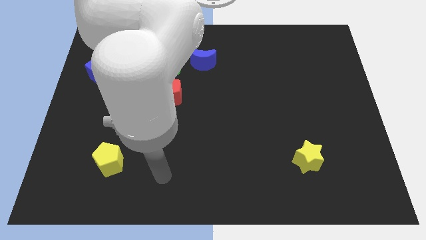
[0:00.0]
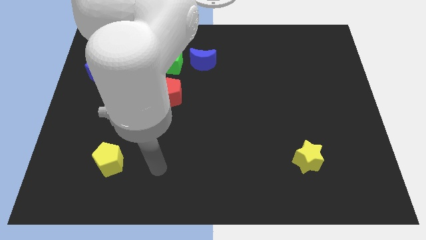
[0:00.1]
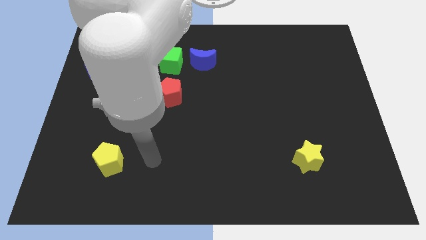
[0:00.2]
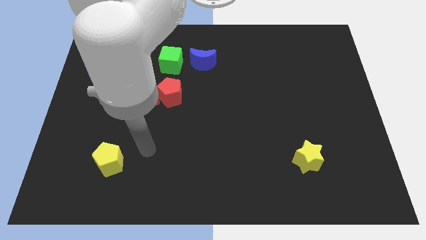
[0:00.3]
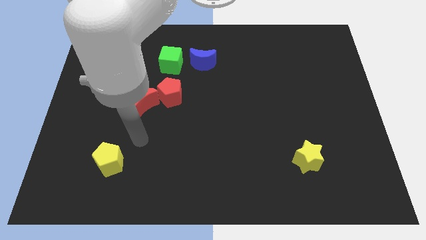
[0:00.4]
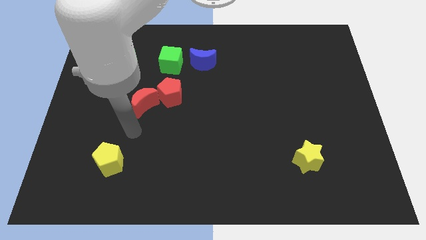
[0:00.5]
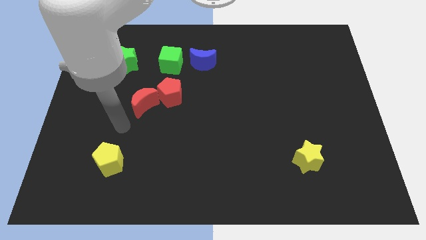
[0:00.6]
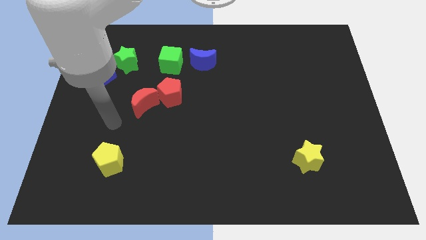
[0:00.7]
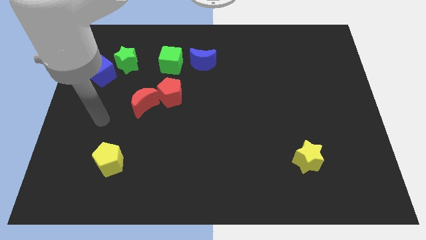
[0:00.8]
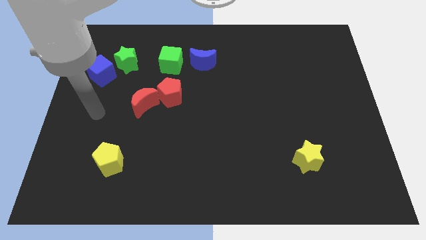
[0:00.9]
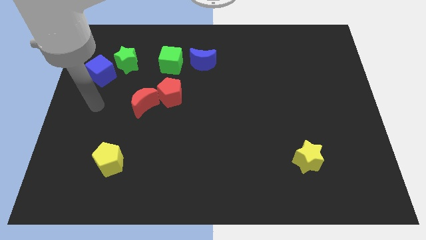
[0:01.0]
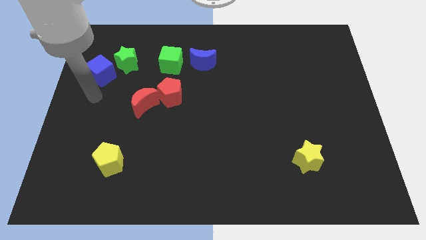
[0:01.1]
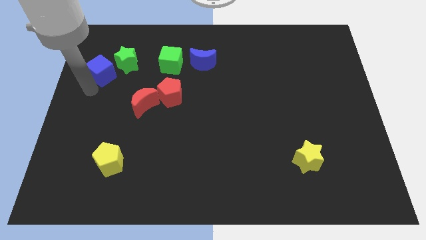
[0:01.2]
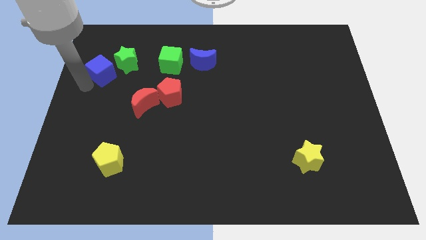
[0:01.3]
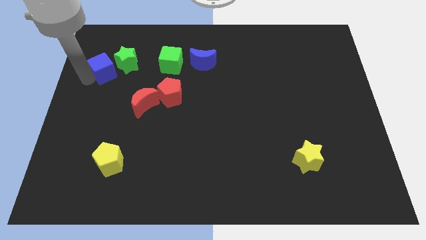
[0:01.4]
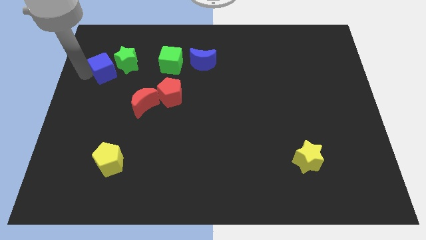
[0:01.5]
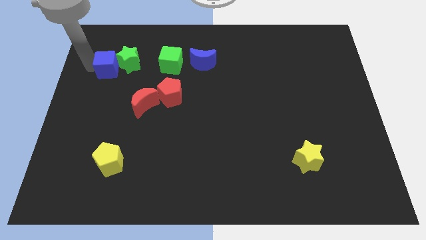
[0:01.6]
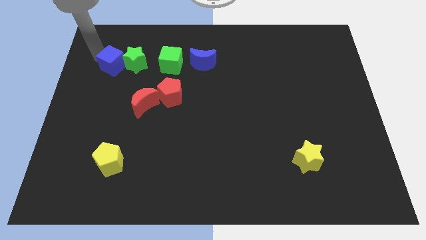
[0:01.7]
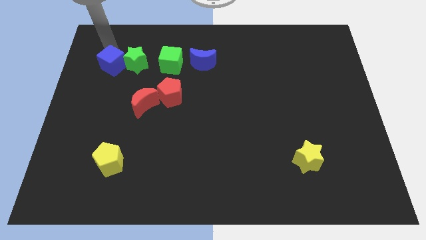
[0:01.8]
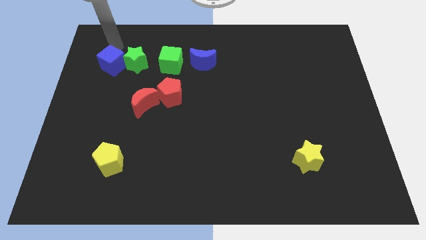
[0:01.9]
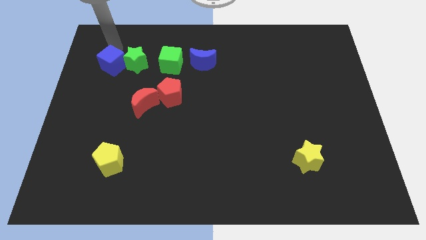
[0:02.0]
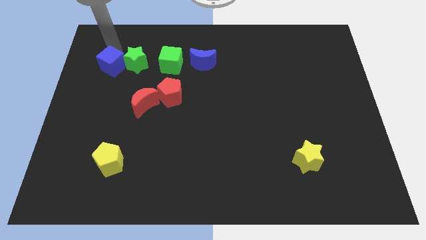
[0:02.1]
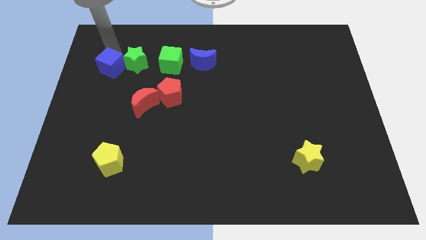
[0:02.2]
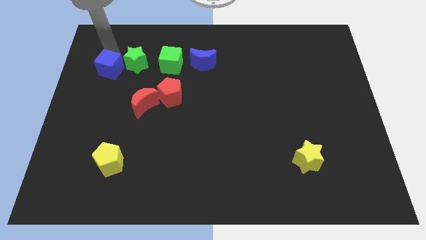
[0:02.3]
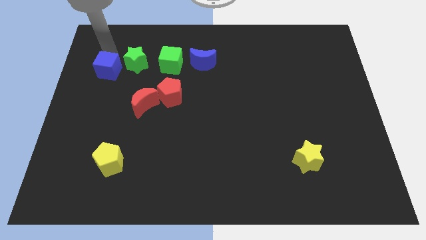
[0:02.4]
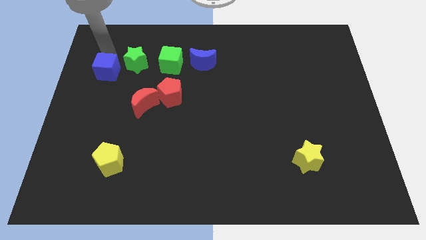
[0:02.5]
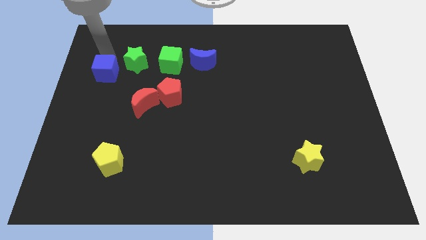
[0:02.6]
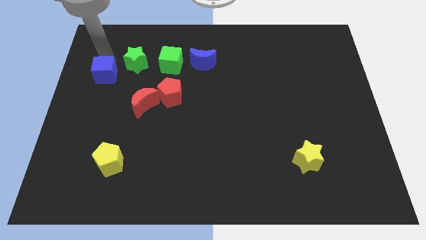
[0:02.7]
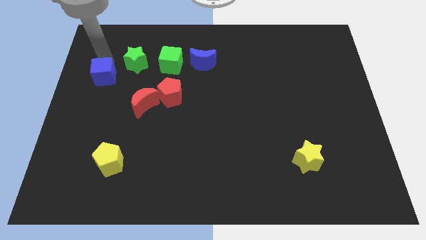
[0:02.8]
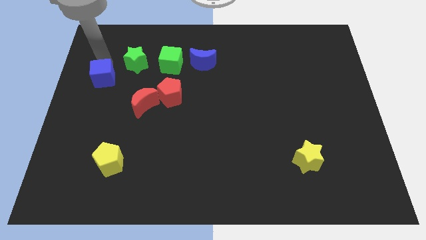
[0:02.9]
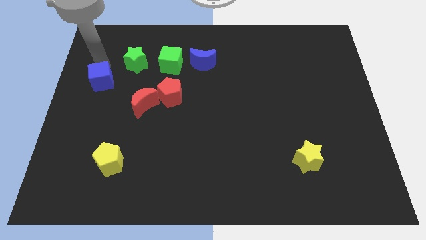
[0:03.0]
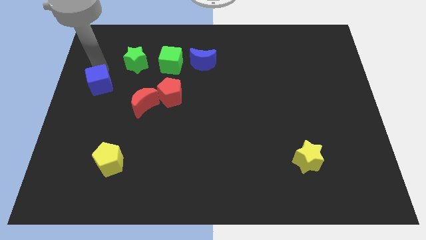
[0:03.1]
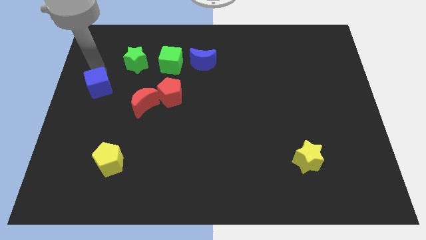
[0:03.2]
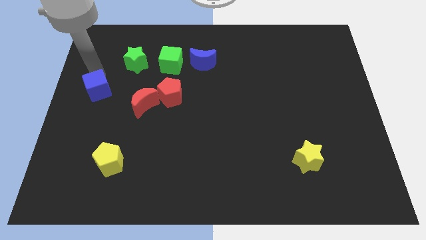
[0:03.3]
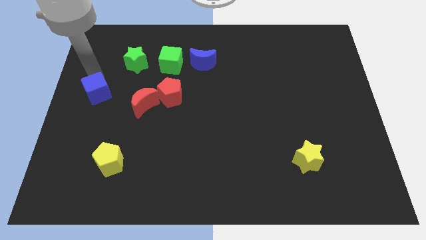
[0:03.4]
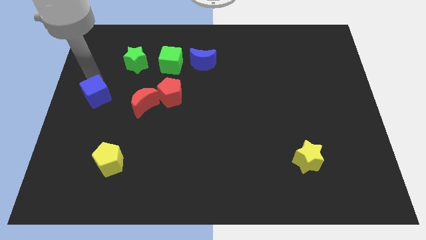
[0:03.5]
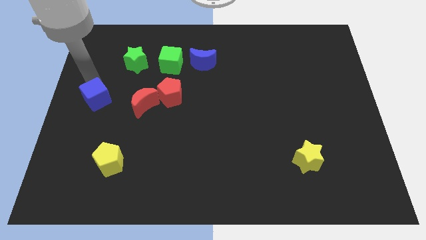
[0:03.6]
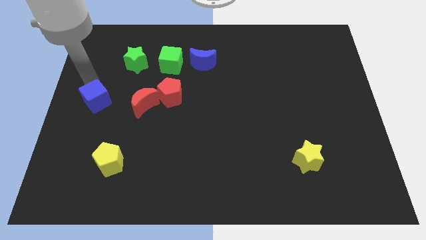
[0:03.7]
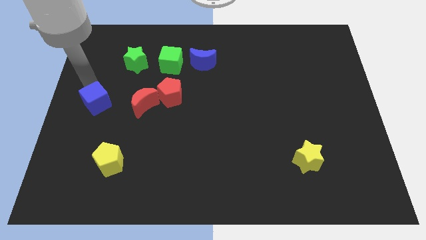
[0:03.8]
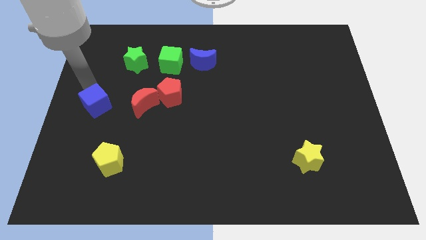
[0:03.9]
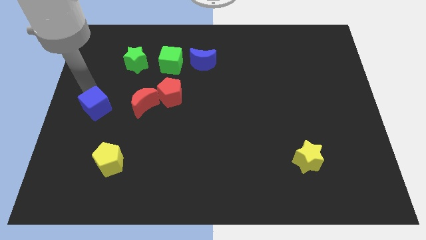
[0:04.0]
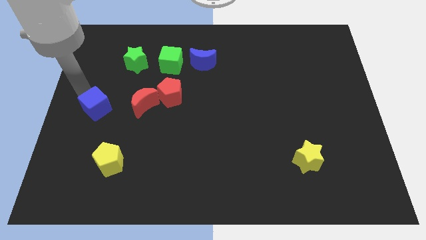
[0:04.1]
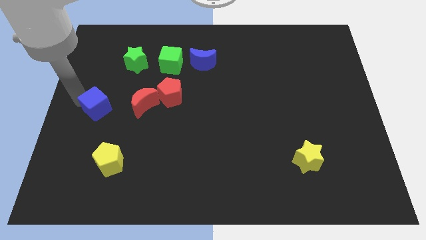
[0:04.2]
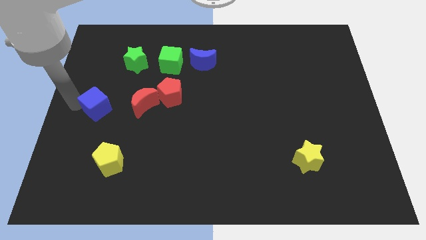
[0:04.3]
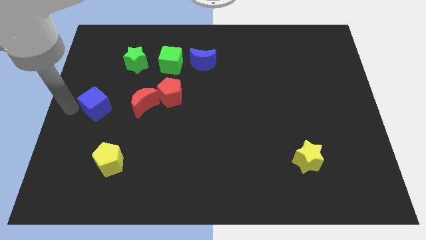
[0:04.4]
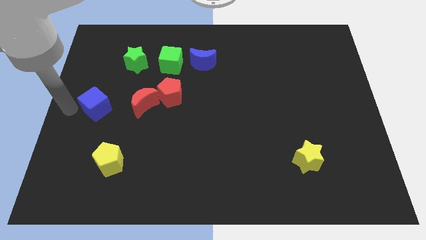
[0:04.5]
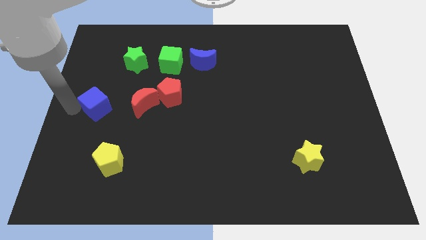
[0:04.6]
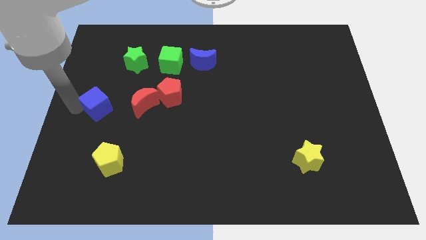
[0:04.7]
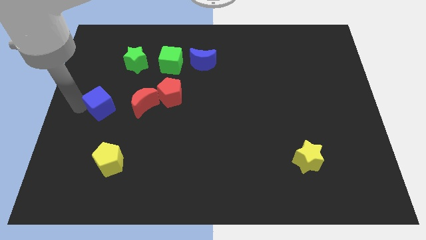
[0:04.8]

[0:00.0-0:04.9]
move the blue cube a bit down and then to the right

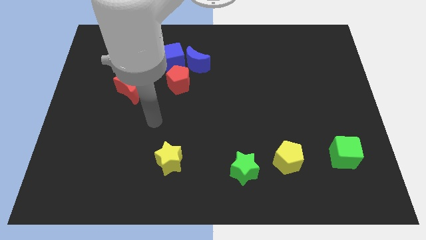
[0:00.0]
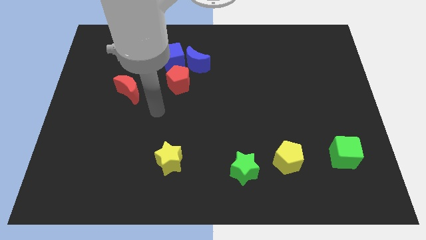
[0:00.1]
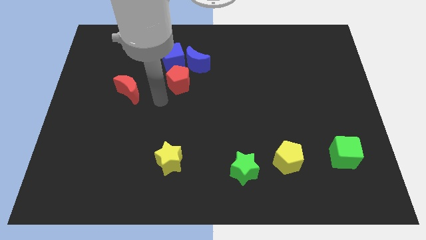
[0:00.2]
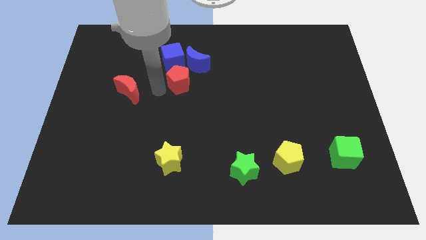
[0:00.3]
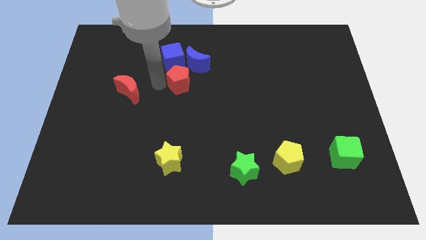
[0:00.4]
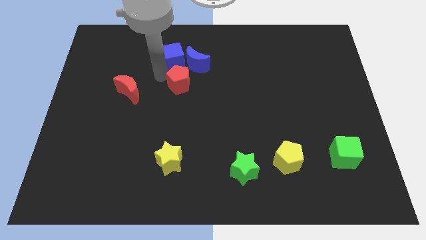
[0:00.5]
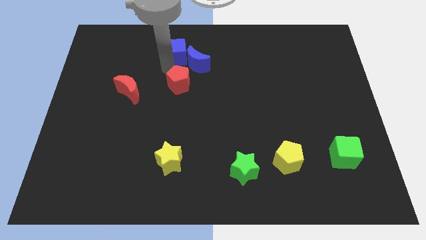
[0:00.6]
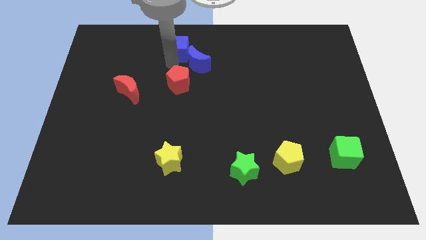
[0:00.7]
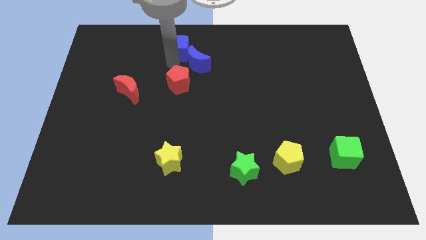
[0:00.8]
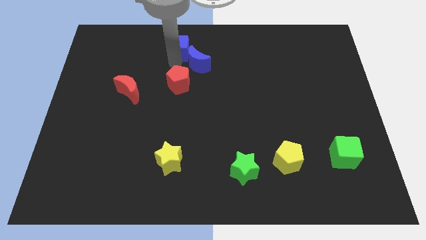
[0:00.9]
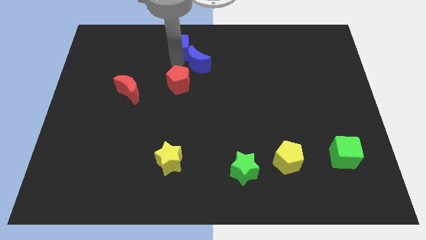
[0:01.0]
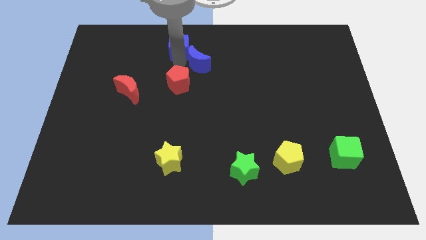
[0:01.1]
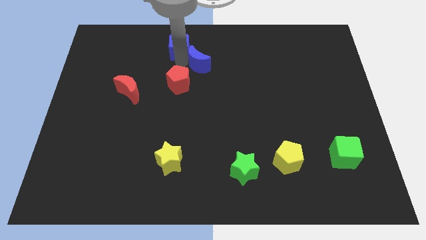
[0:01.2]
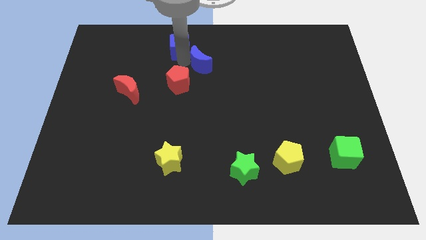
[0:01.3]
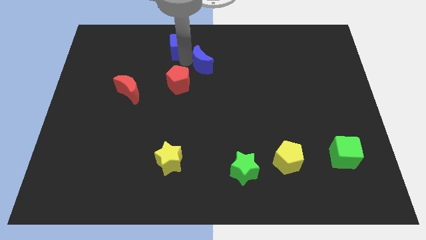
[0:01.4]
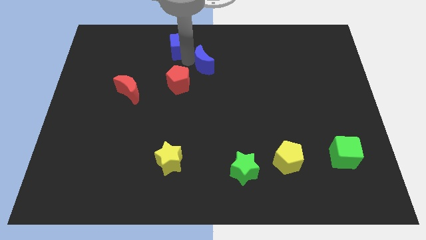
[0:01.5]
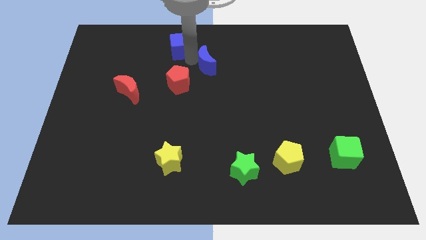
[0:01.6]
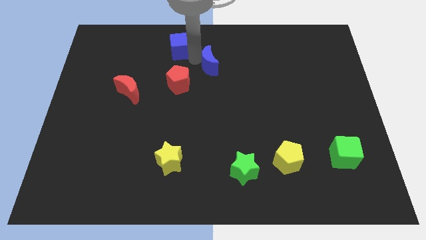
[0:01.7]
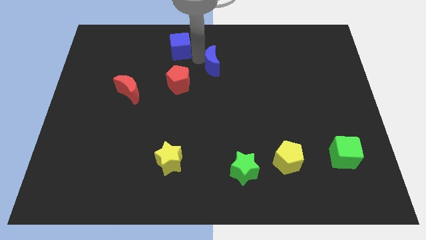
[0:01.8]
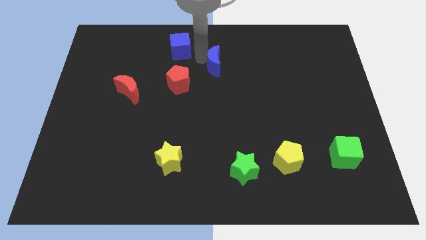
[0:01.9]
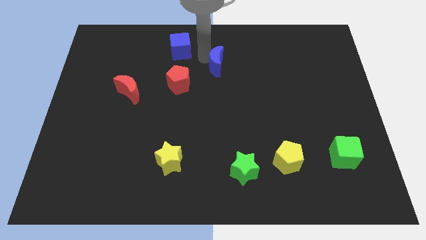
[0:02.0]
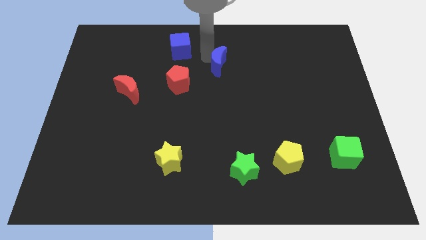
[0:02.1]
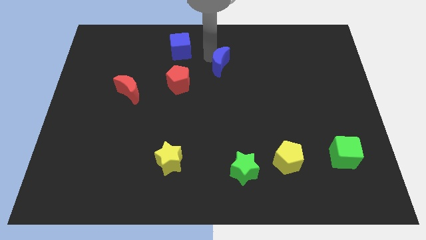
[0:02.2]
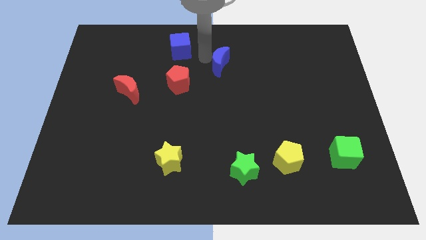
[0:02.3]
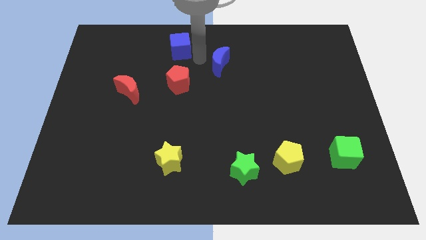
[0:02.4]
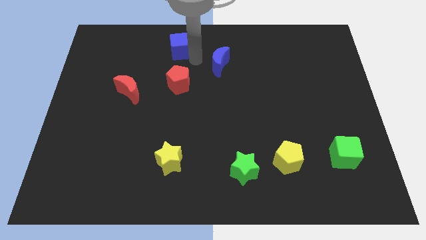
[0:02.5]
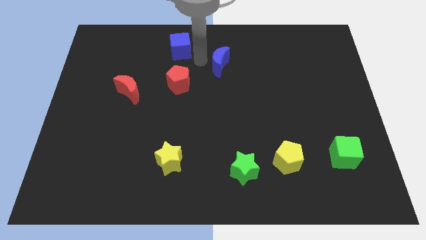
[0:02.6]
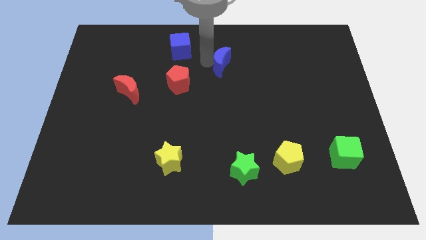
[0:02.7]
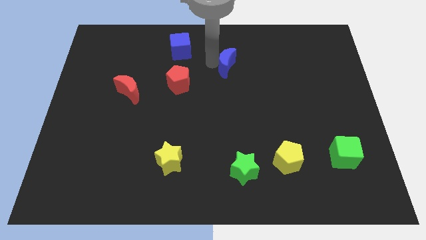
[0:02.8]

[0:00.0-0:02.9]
push the blue moon right slightly
